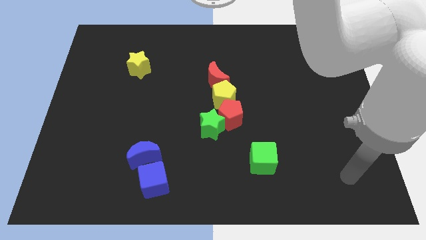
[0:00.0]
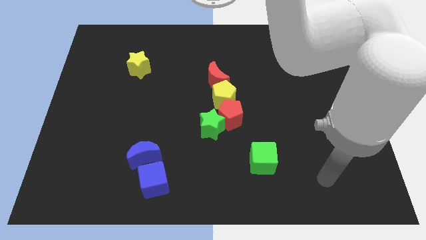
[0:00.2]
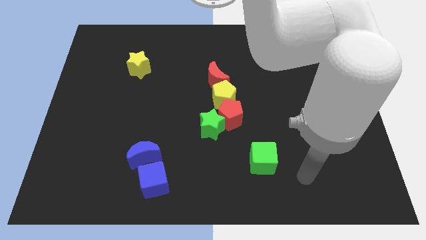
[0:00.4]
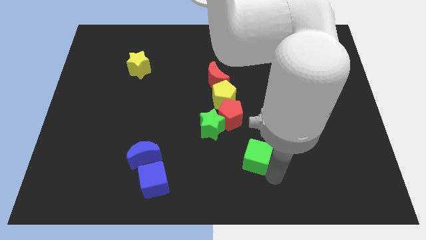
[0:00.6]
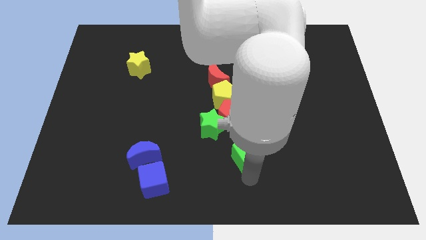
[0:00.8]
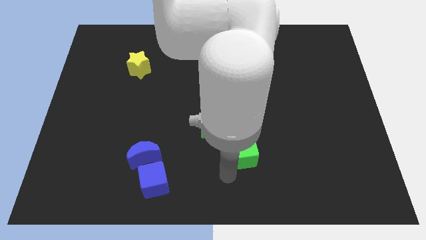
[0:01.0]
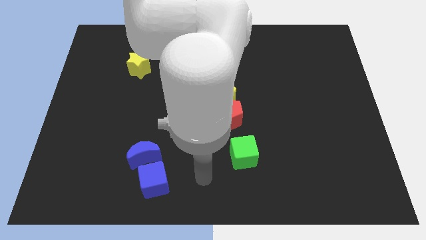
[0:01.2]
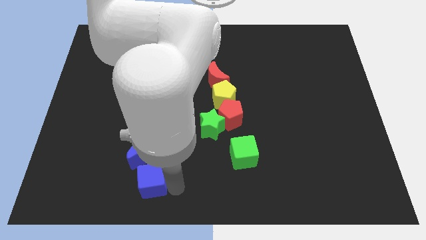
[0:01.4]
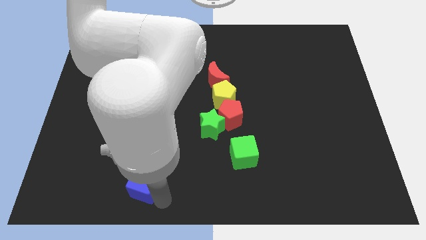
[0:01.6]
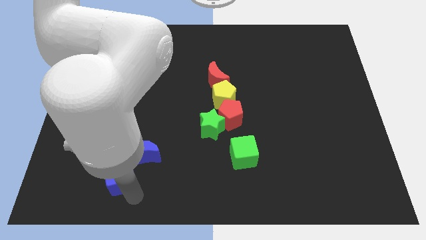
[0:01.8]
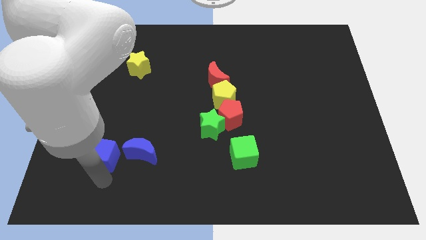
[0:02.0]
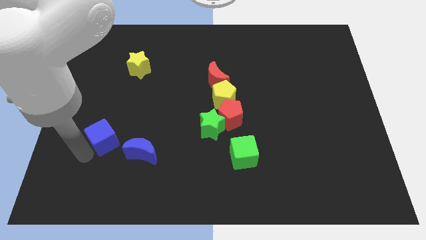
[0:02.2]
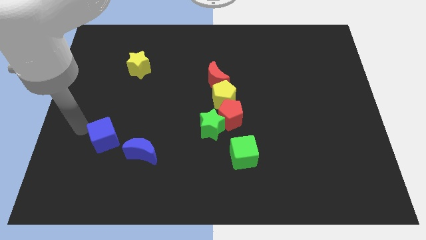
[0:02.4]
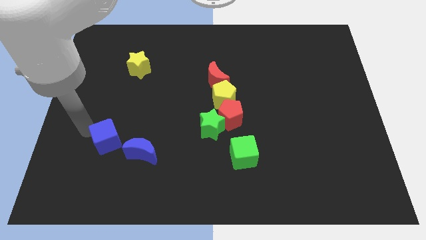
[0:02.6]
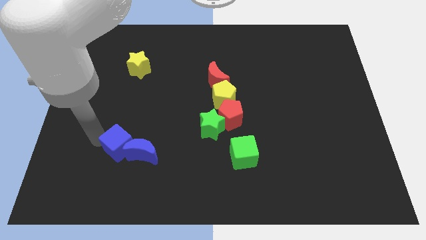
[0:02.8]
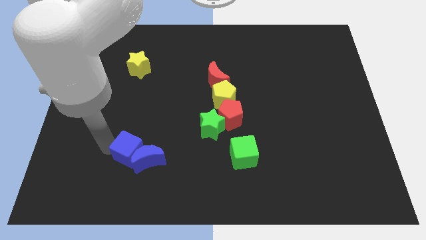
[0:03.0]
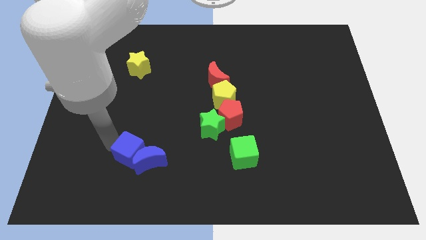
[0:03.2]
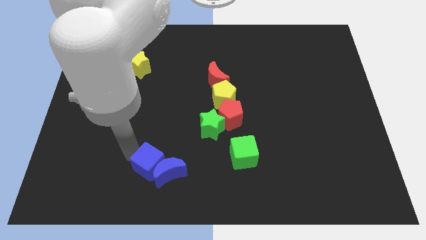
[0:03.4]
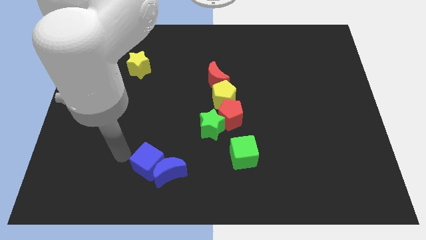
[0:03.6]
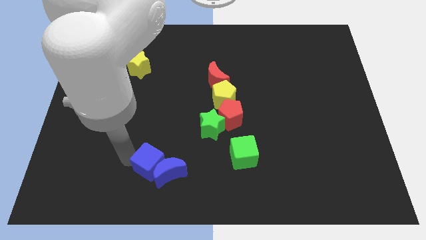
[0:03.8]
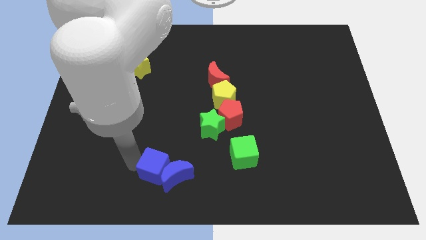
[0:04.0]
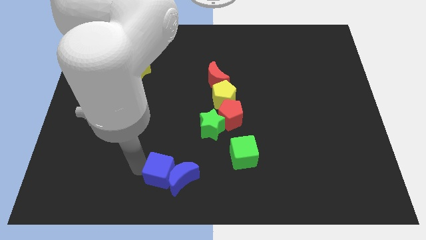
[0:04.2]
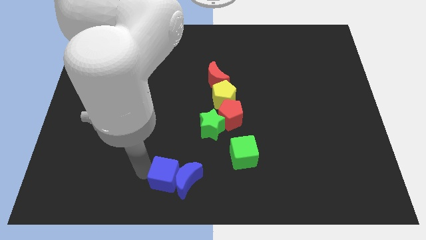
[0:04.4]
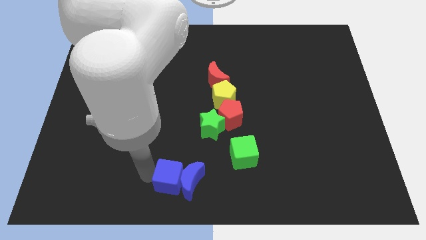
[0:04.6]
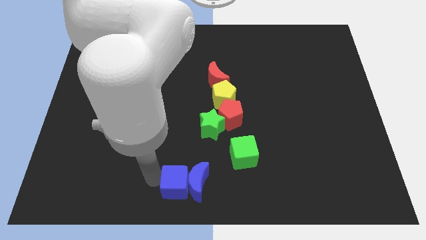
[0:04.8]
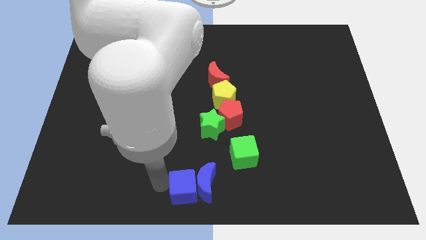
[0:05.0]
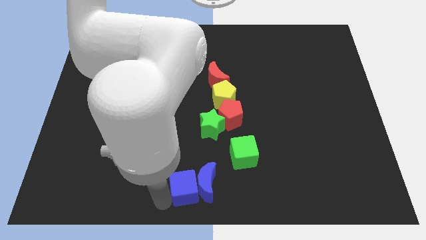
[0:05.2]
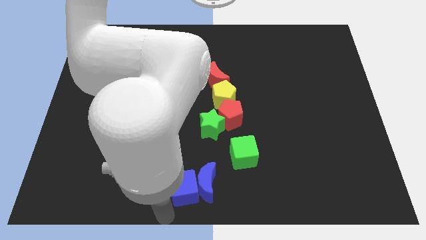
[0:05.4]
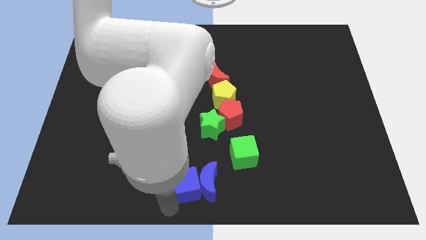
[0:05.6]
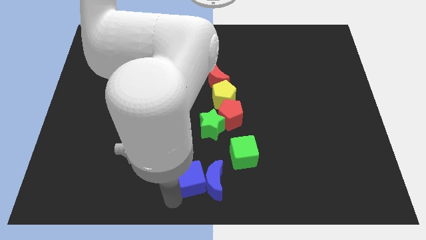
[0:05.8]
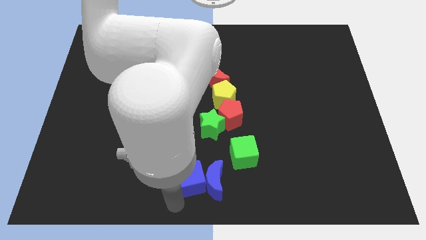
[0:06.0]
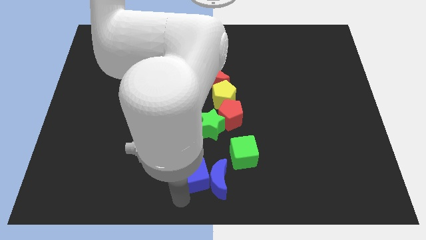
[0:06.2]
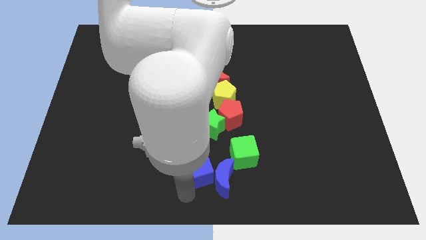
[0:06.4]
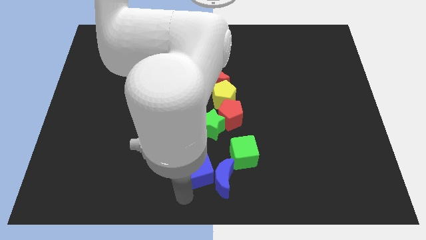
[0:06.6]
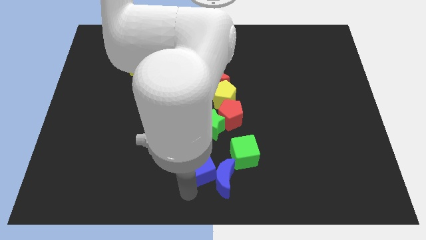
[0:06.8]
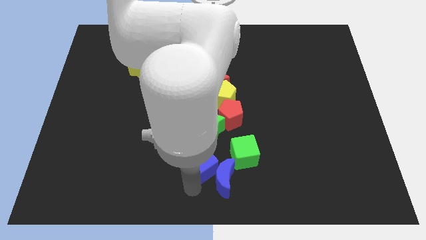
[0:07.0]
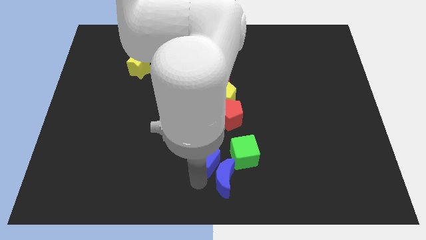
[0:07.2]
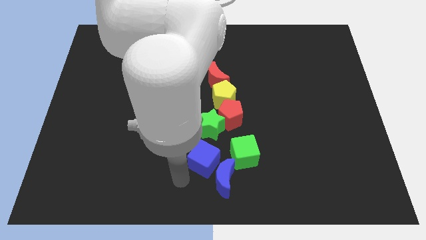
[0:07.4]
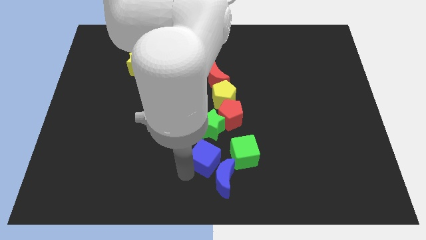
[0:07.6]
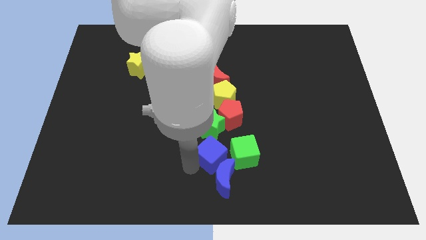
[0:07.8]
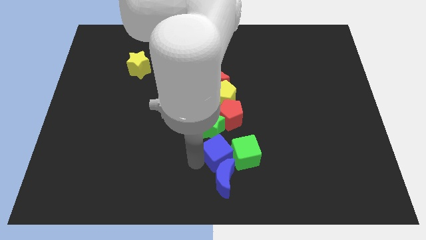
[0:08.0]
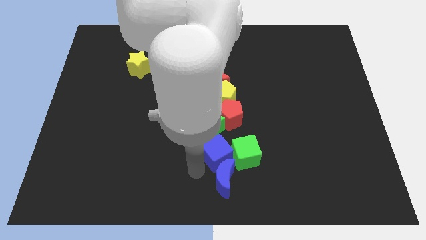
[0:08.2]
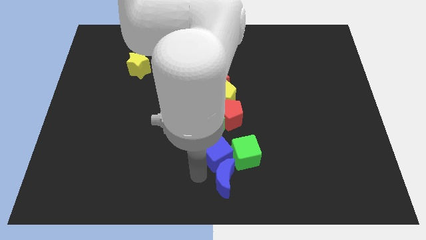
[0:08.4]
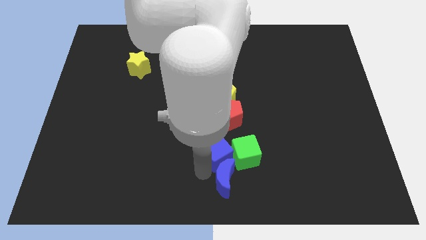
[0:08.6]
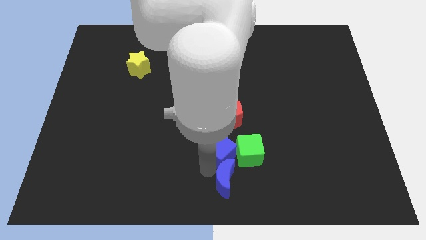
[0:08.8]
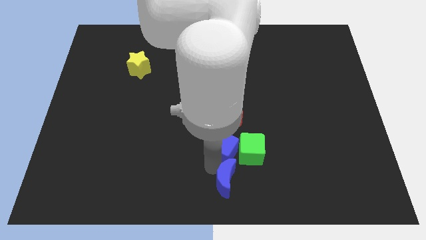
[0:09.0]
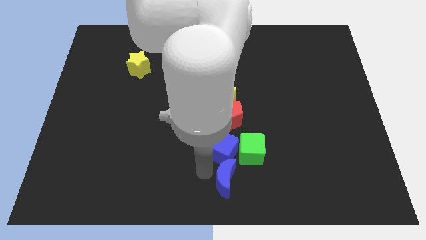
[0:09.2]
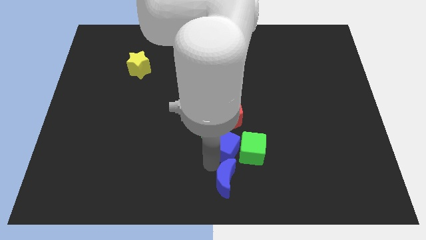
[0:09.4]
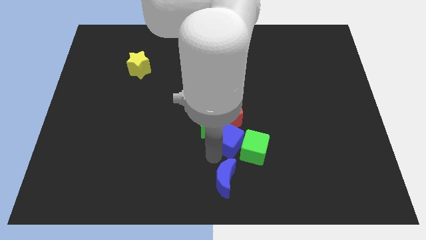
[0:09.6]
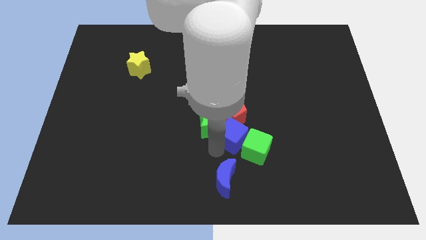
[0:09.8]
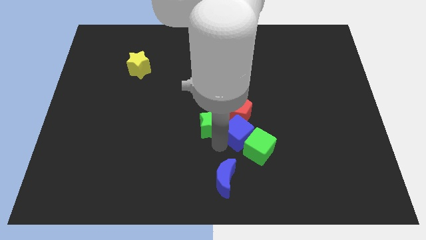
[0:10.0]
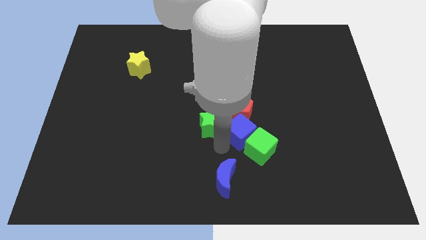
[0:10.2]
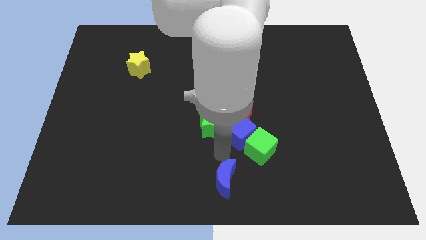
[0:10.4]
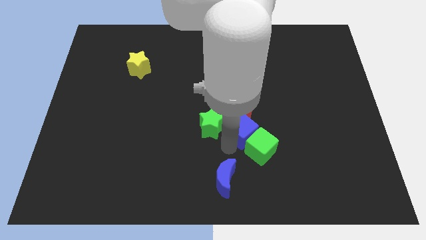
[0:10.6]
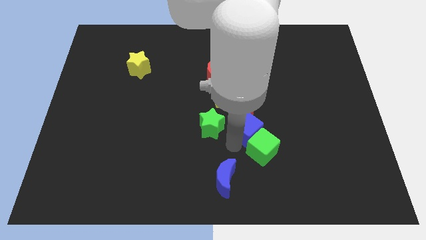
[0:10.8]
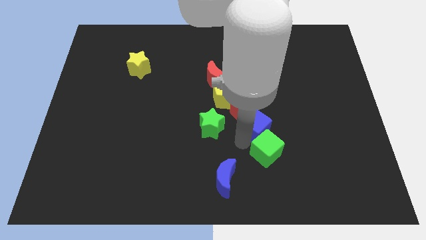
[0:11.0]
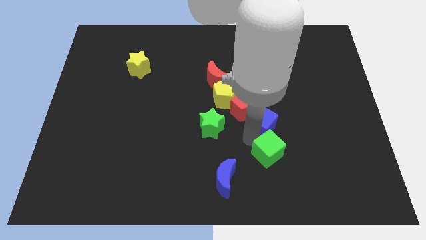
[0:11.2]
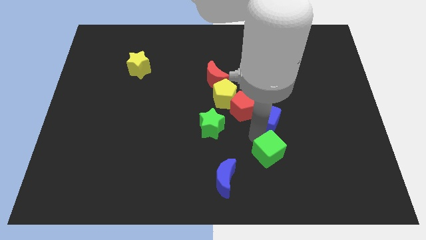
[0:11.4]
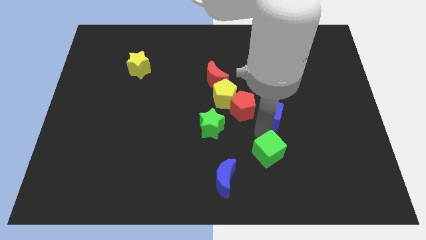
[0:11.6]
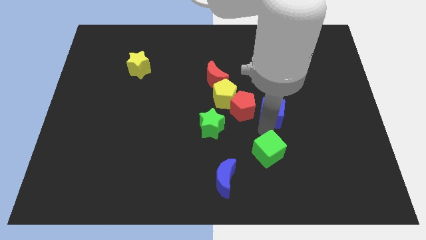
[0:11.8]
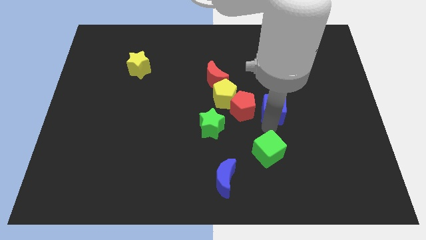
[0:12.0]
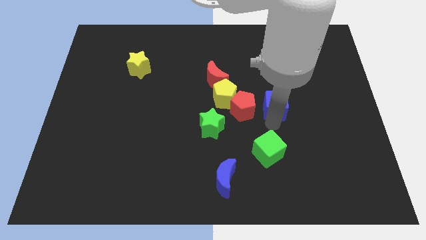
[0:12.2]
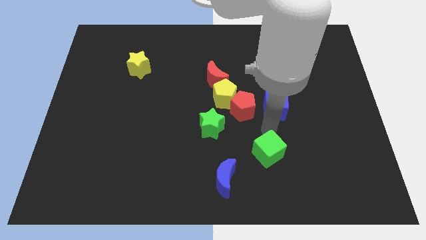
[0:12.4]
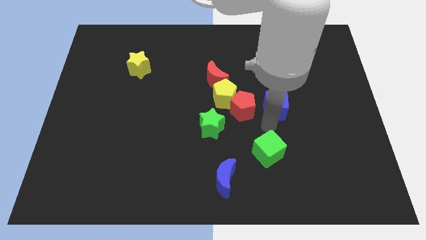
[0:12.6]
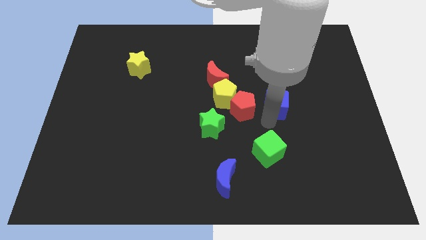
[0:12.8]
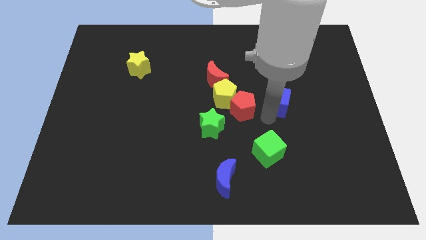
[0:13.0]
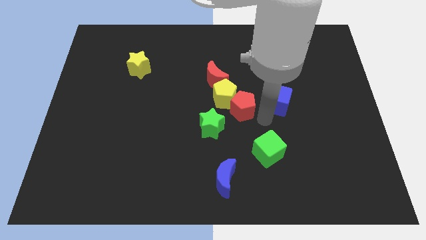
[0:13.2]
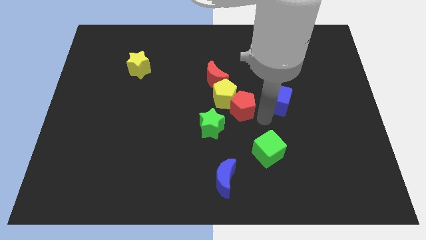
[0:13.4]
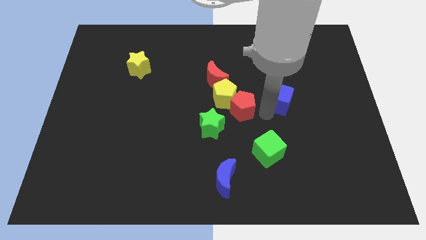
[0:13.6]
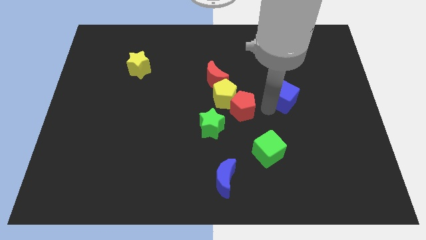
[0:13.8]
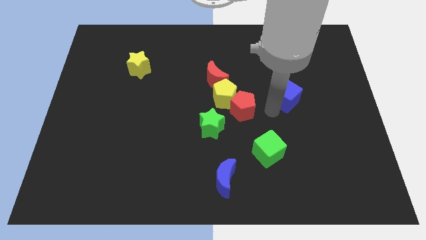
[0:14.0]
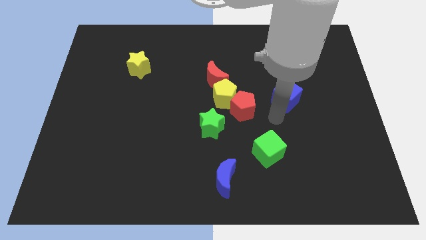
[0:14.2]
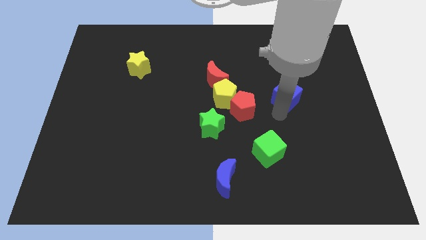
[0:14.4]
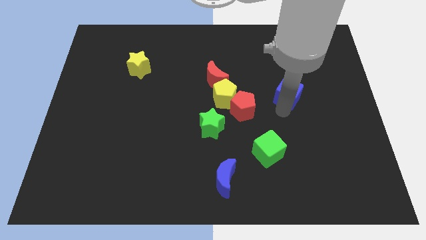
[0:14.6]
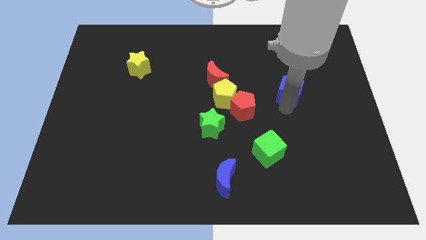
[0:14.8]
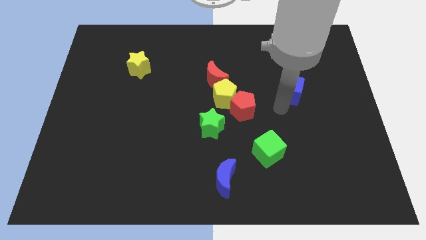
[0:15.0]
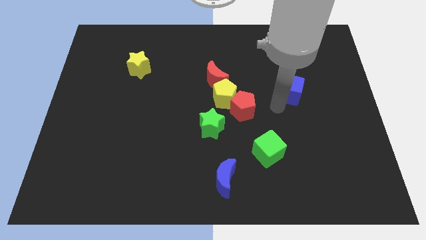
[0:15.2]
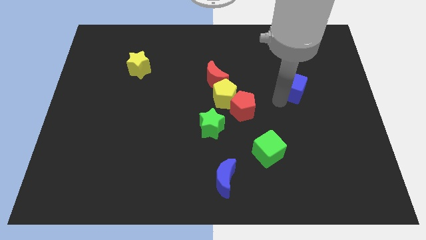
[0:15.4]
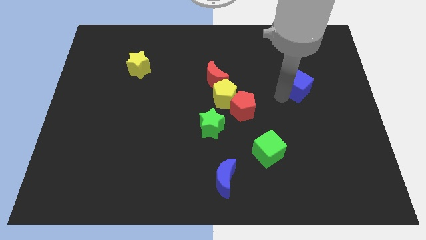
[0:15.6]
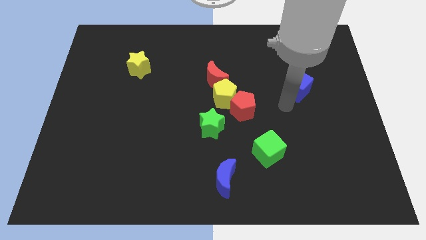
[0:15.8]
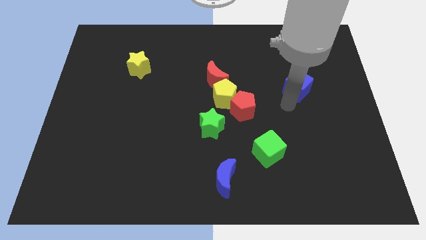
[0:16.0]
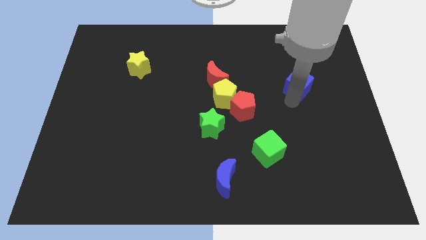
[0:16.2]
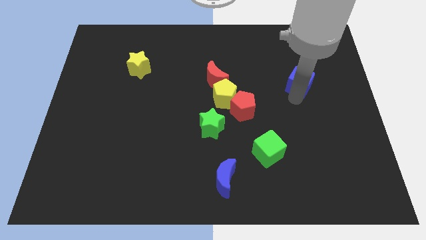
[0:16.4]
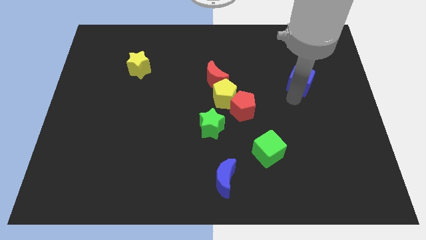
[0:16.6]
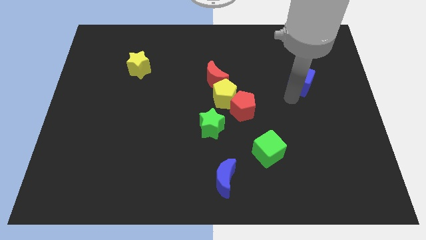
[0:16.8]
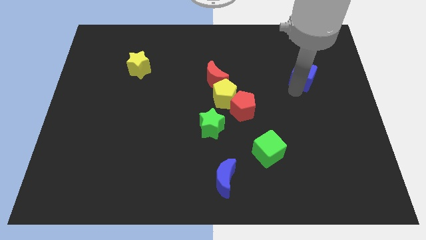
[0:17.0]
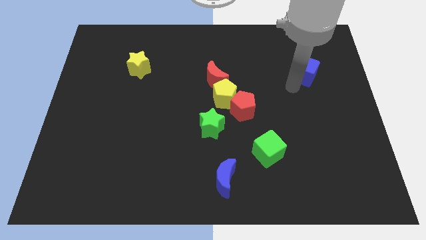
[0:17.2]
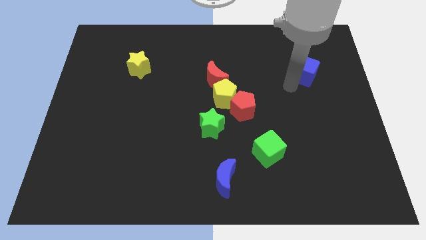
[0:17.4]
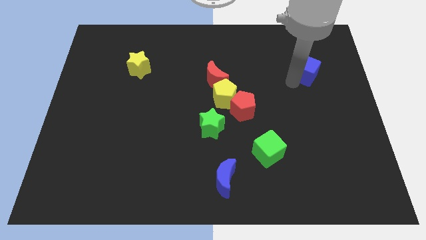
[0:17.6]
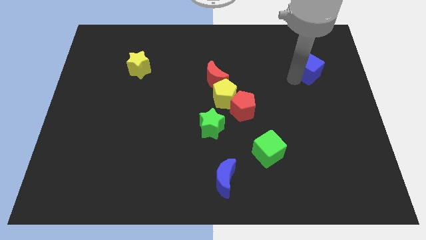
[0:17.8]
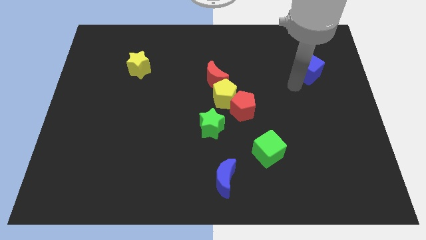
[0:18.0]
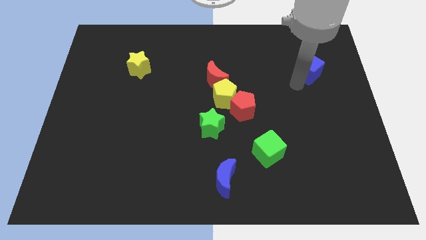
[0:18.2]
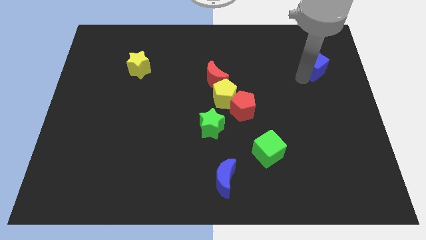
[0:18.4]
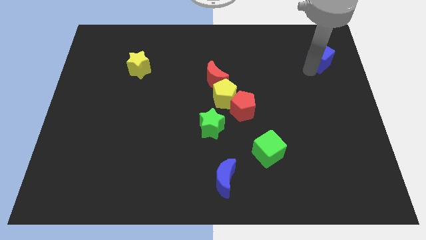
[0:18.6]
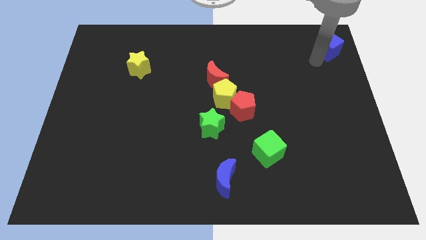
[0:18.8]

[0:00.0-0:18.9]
move the blue cube to the top right of the board
